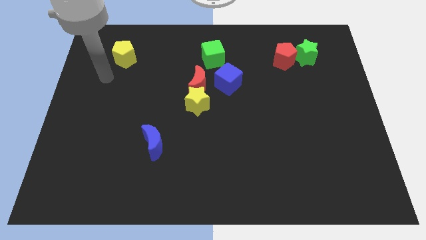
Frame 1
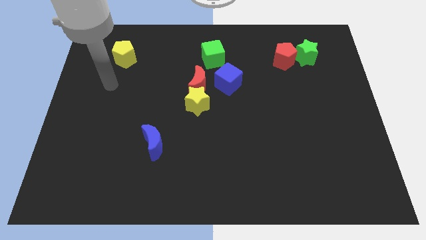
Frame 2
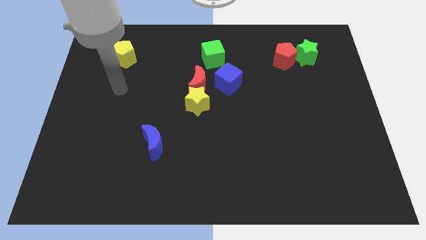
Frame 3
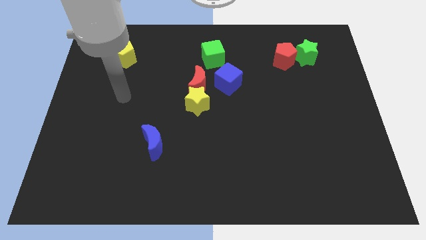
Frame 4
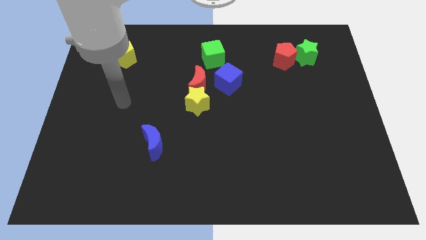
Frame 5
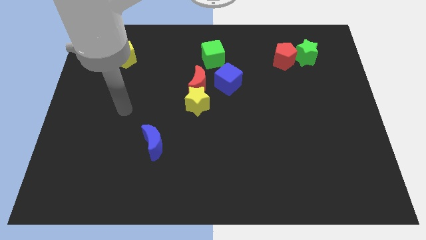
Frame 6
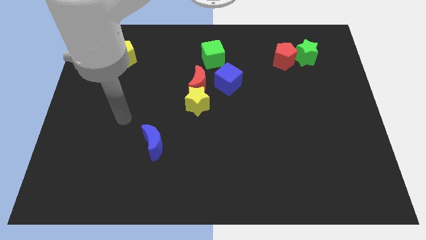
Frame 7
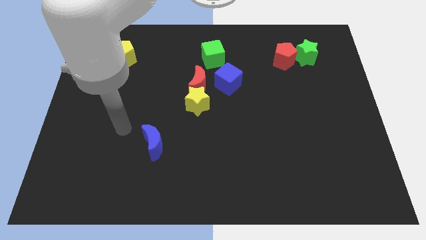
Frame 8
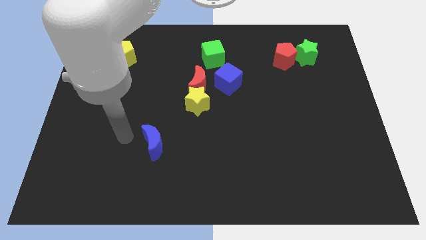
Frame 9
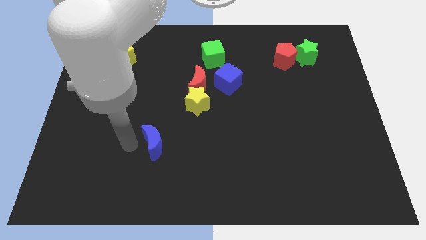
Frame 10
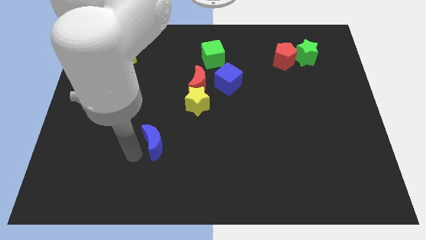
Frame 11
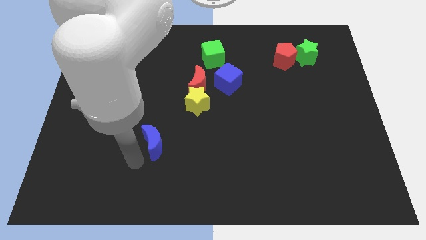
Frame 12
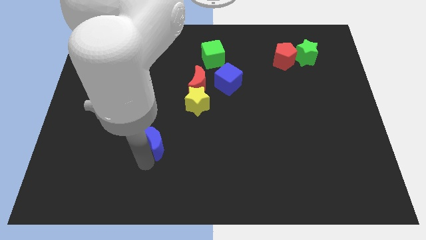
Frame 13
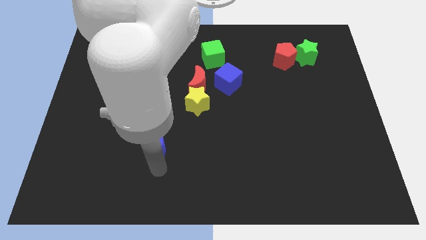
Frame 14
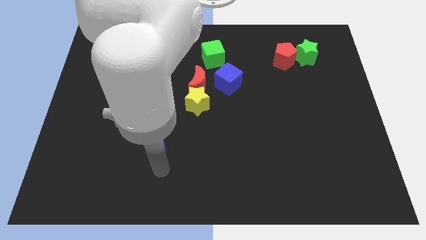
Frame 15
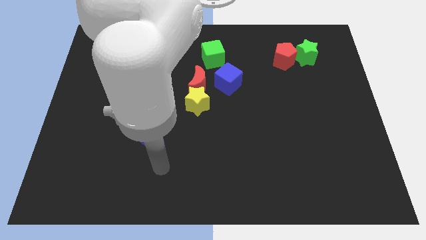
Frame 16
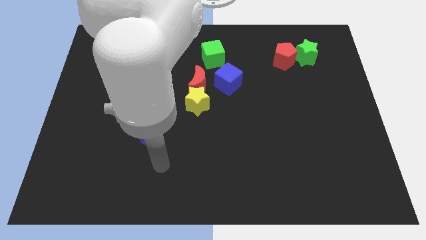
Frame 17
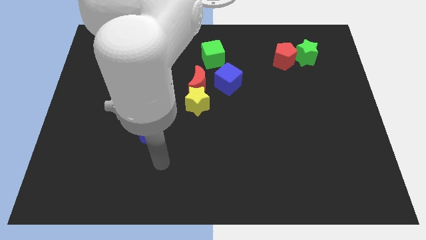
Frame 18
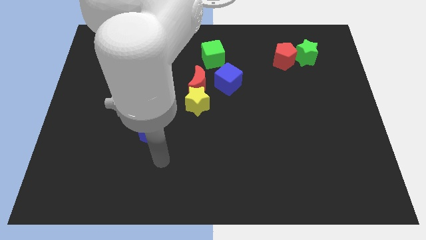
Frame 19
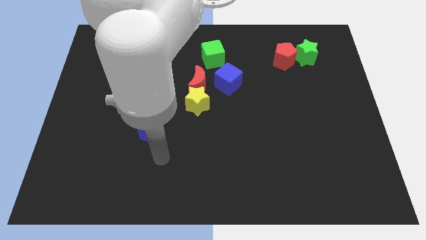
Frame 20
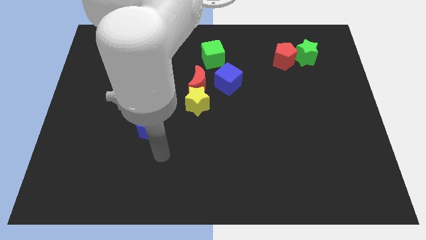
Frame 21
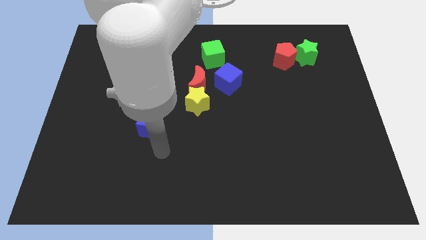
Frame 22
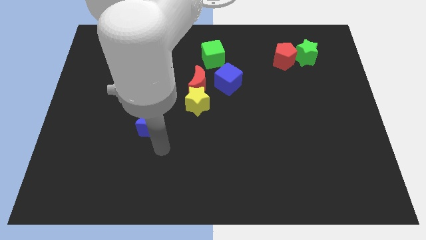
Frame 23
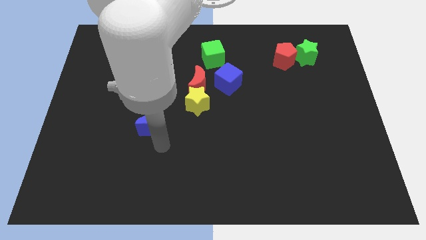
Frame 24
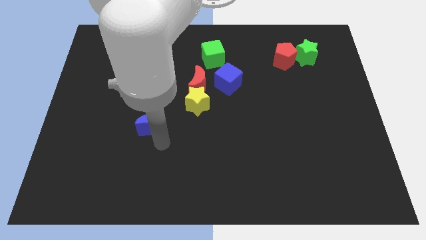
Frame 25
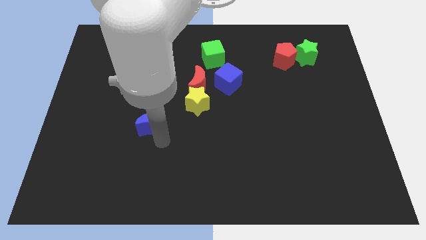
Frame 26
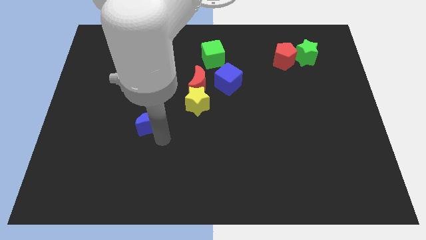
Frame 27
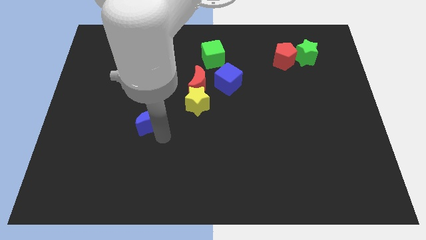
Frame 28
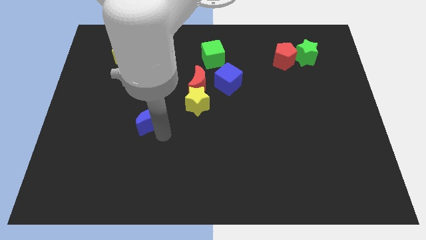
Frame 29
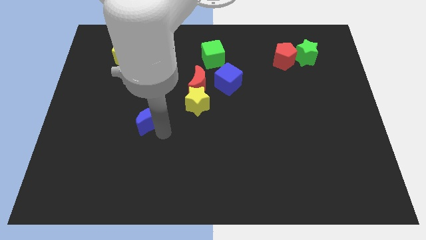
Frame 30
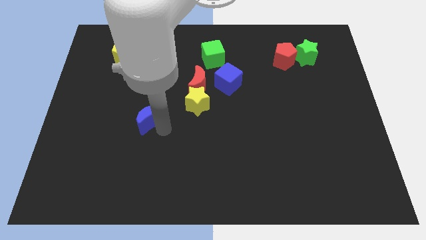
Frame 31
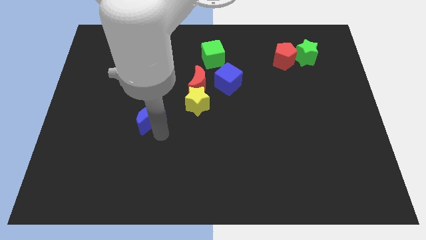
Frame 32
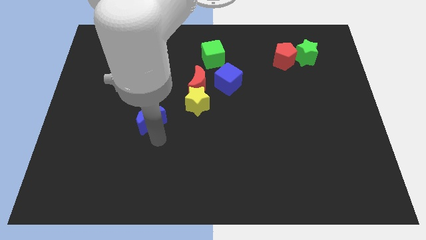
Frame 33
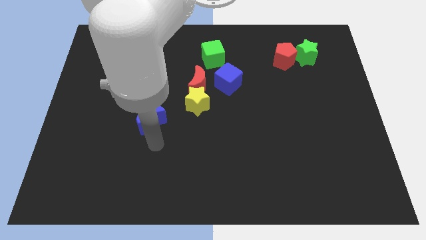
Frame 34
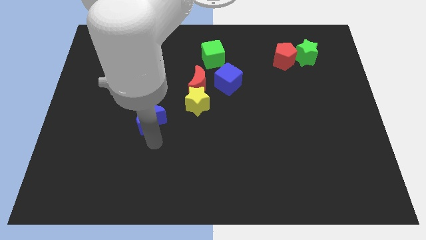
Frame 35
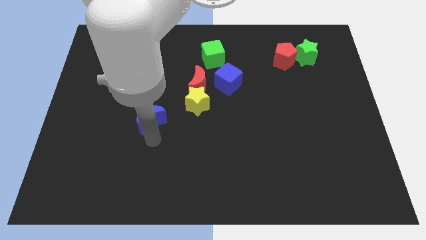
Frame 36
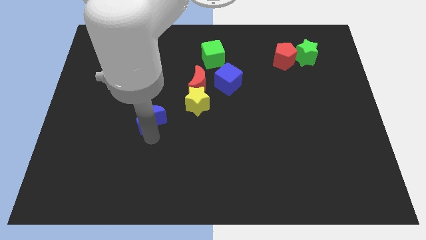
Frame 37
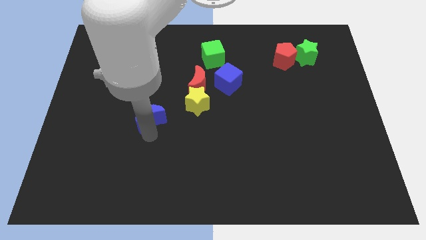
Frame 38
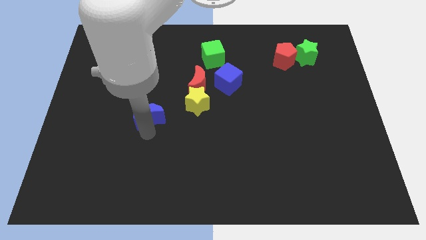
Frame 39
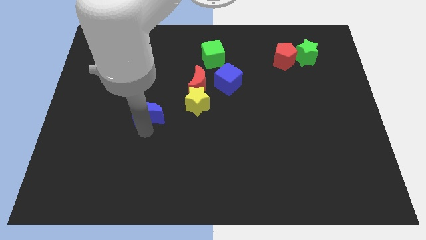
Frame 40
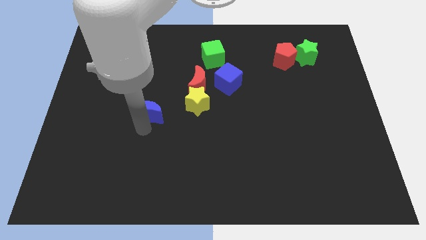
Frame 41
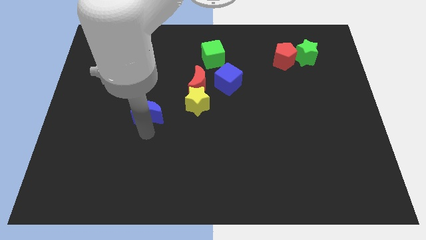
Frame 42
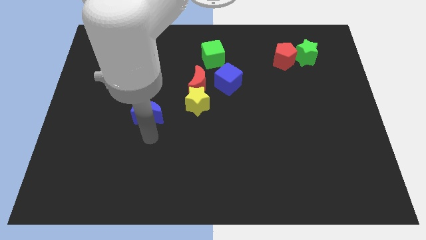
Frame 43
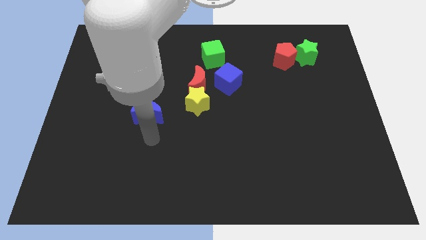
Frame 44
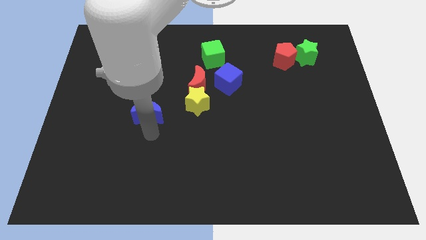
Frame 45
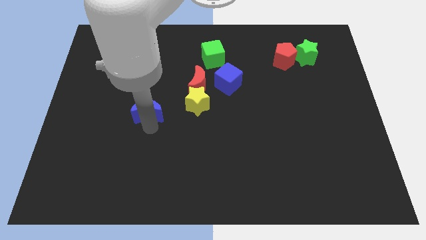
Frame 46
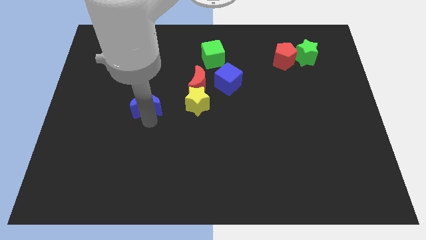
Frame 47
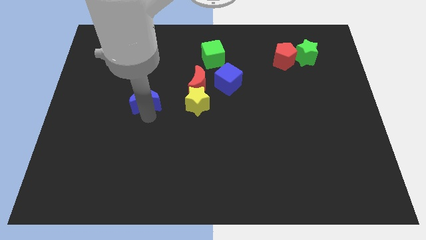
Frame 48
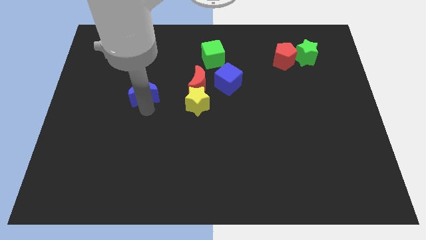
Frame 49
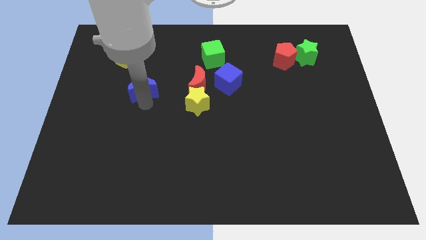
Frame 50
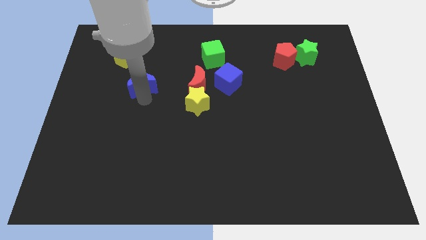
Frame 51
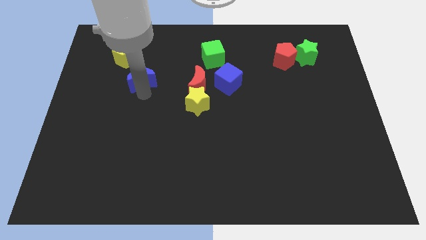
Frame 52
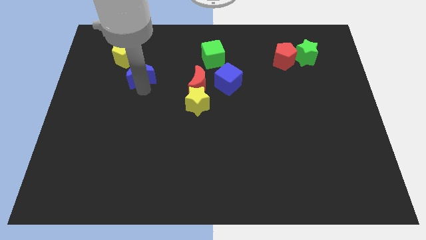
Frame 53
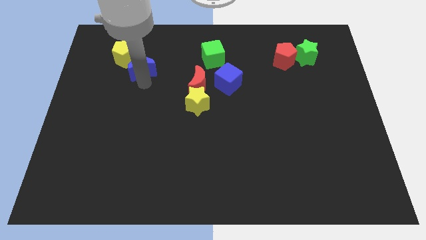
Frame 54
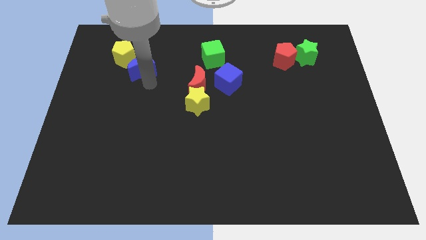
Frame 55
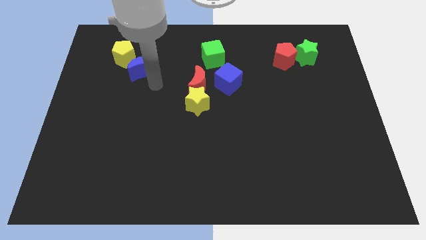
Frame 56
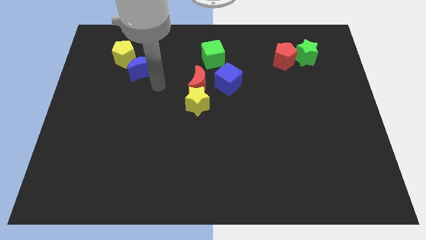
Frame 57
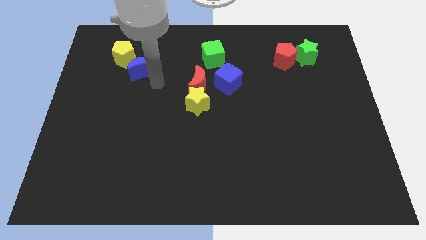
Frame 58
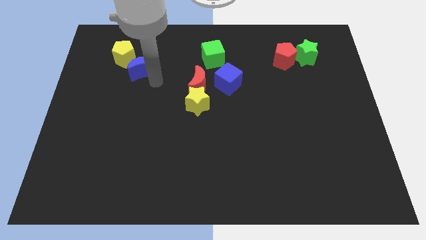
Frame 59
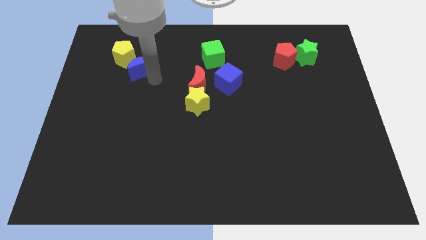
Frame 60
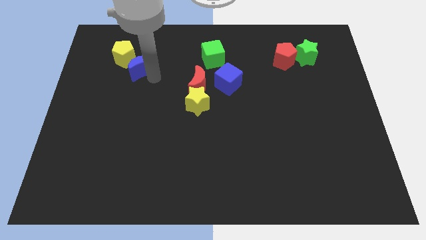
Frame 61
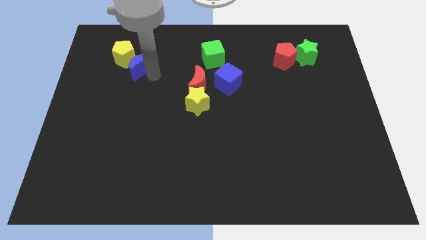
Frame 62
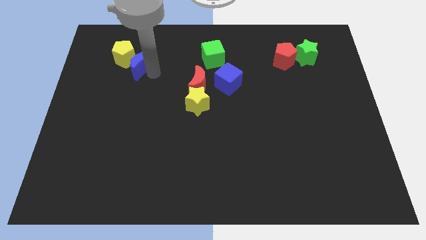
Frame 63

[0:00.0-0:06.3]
slide the blue moon close to the yellow pentagon

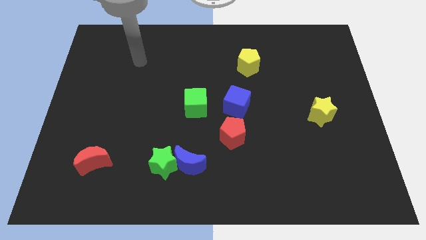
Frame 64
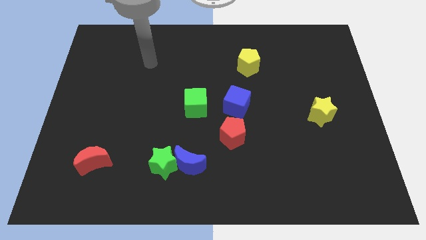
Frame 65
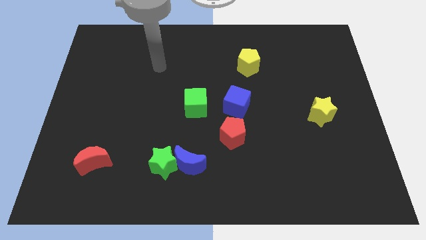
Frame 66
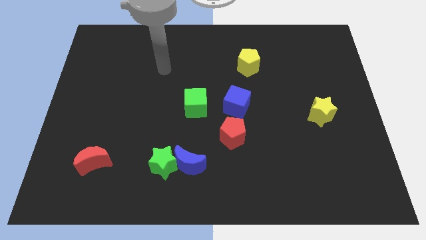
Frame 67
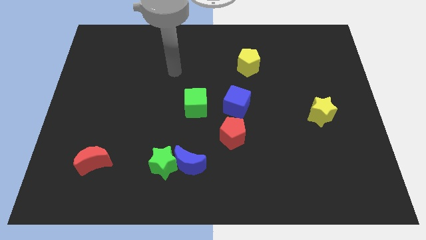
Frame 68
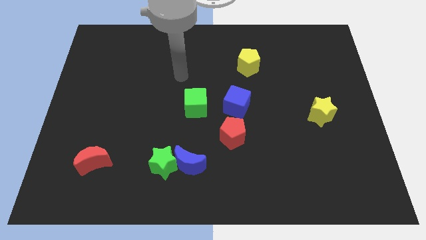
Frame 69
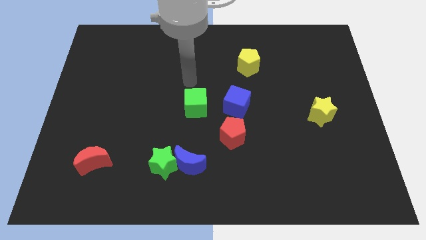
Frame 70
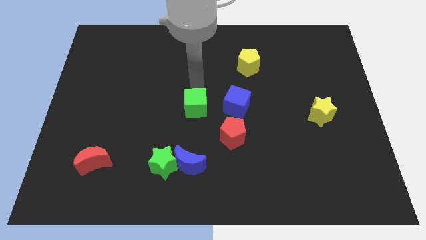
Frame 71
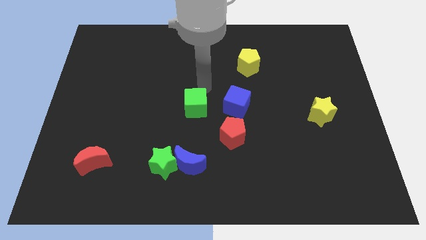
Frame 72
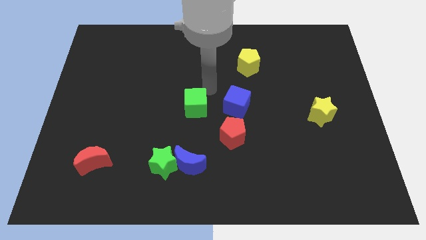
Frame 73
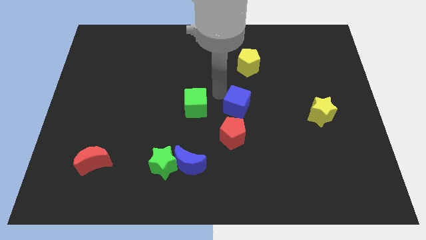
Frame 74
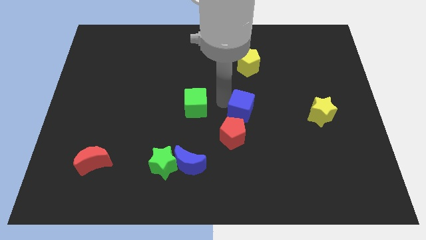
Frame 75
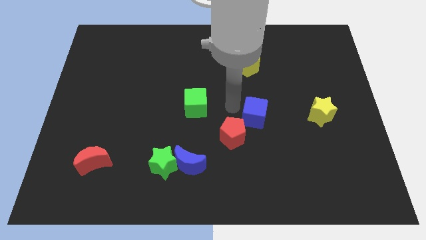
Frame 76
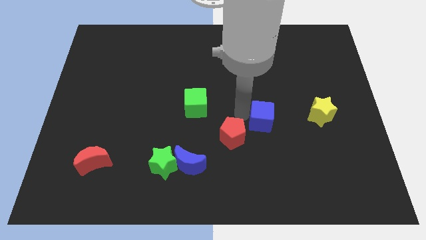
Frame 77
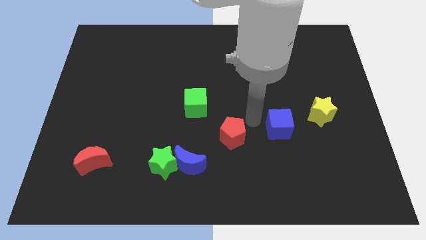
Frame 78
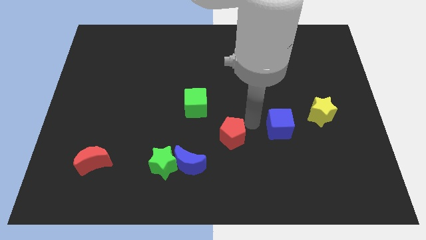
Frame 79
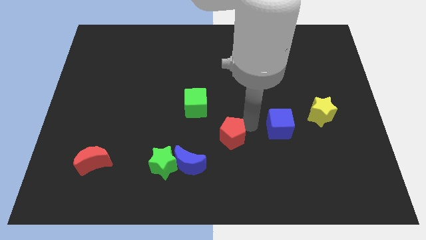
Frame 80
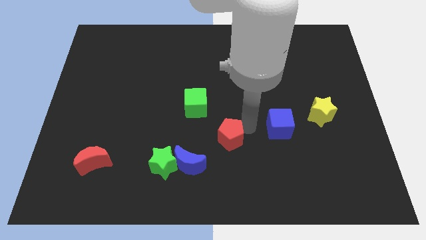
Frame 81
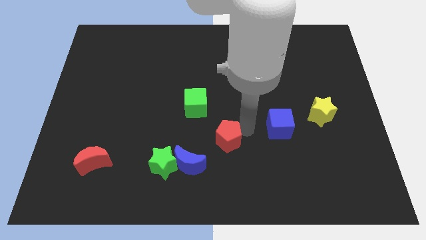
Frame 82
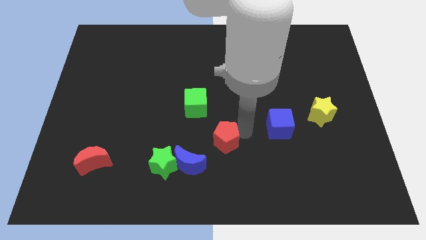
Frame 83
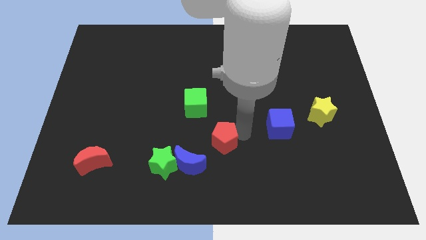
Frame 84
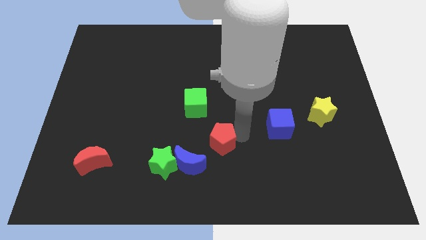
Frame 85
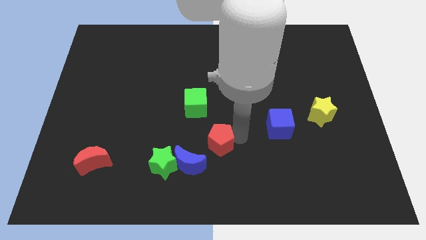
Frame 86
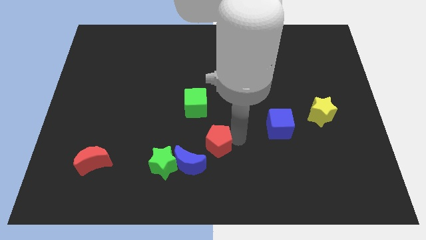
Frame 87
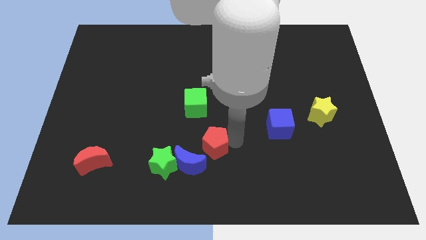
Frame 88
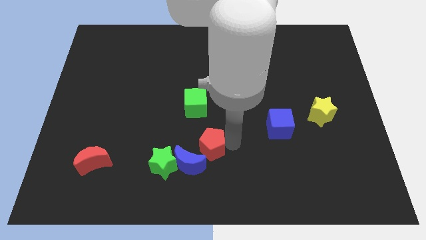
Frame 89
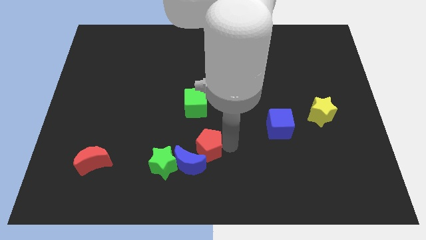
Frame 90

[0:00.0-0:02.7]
slide the red pentagon close to the blue moon
